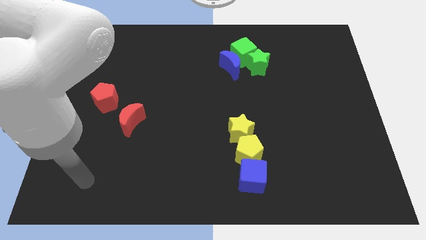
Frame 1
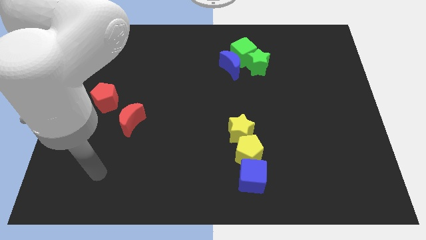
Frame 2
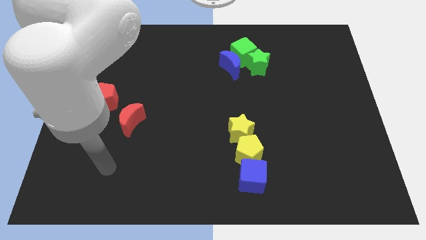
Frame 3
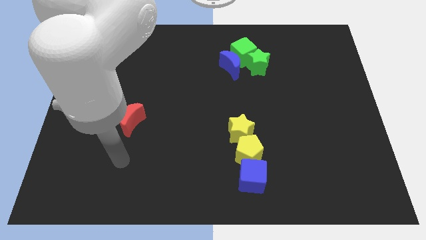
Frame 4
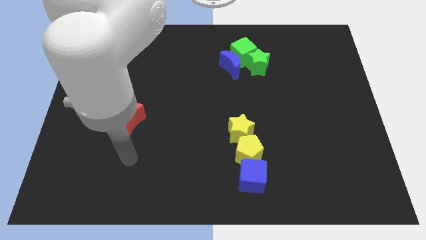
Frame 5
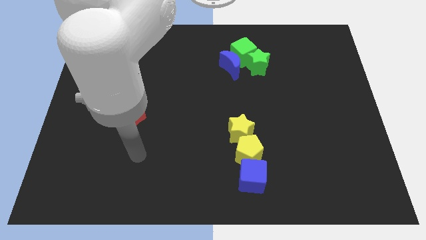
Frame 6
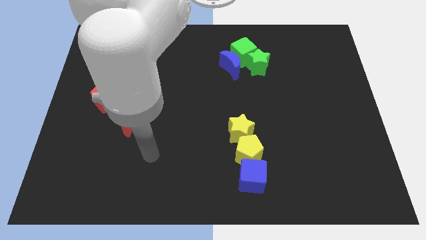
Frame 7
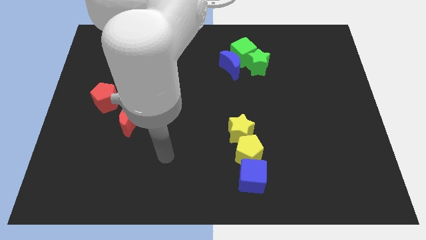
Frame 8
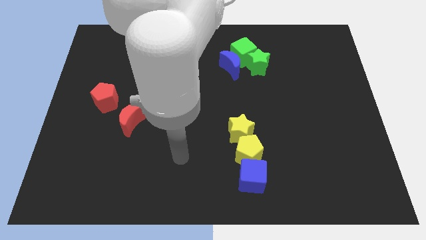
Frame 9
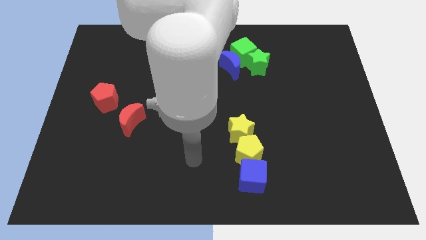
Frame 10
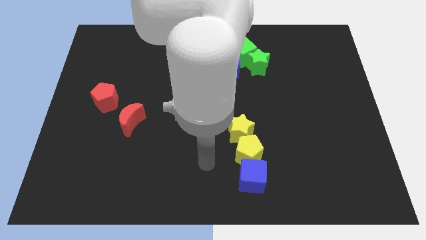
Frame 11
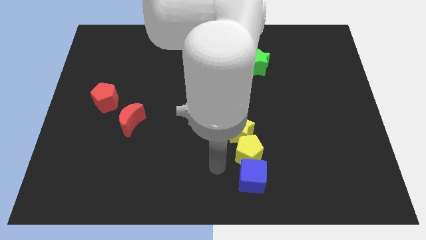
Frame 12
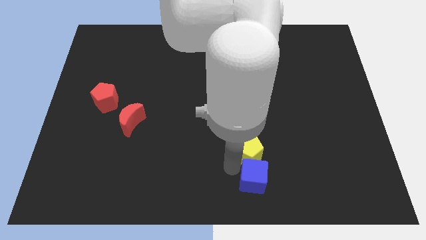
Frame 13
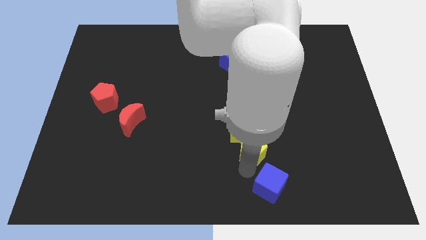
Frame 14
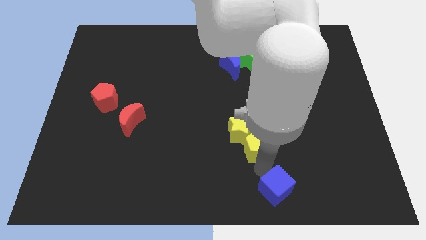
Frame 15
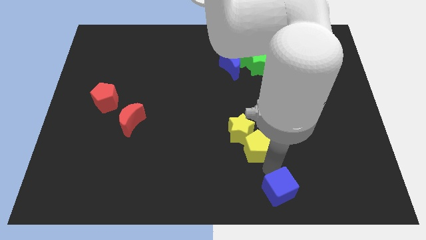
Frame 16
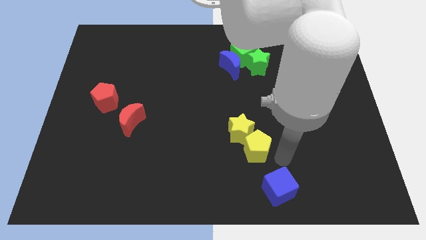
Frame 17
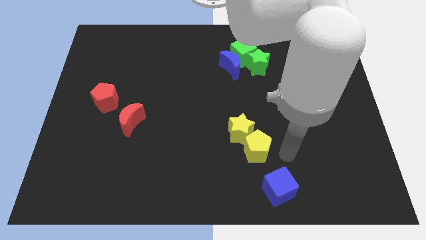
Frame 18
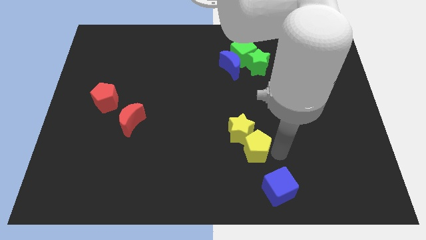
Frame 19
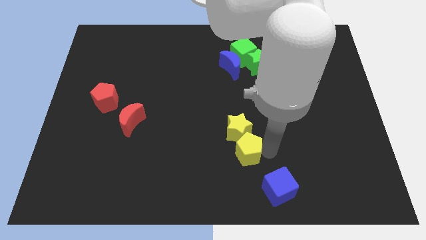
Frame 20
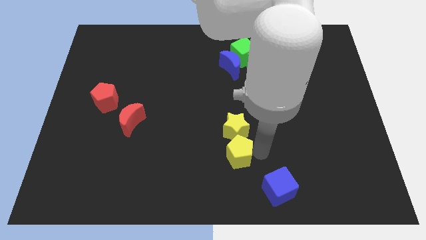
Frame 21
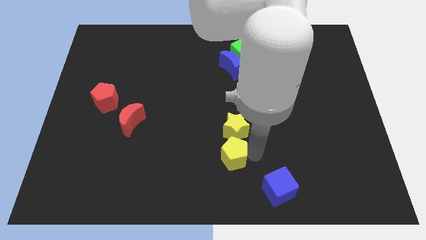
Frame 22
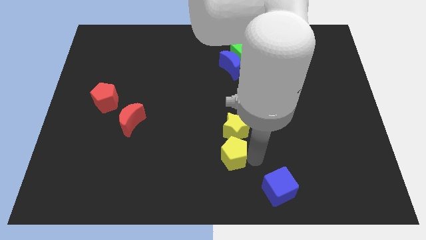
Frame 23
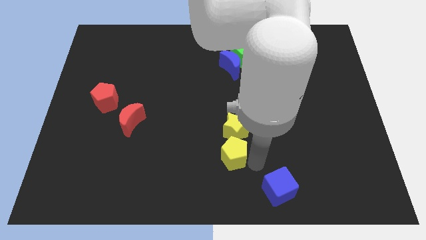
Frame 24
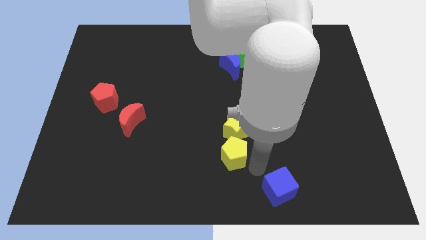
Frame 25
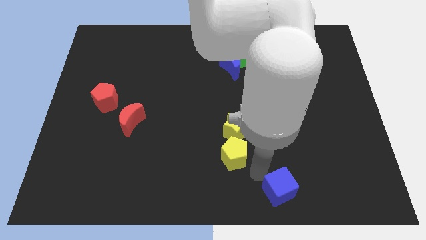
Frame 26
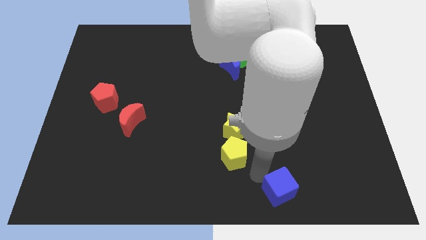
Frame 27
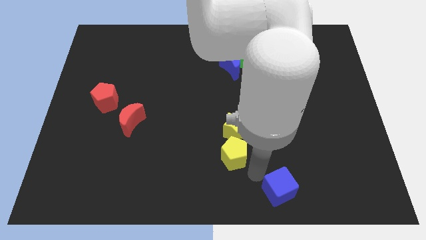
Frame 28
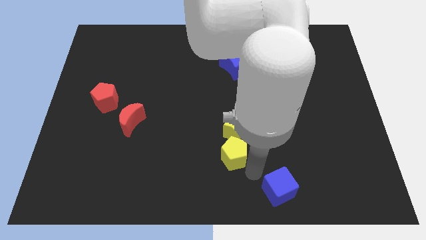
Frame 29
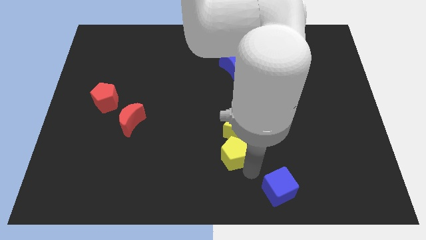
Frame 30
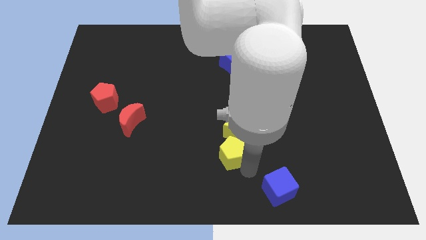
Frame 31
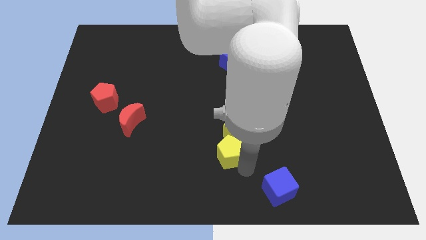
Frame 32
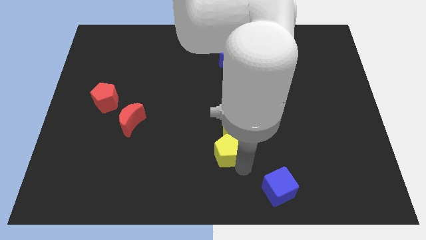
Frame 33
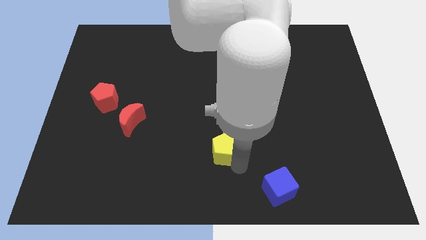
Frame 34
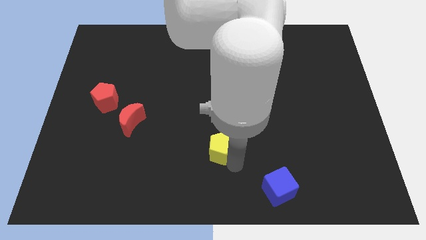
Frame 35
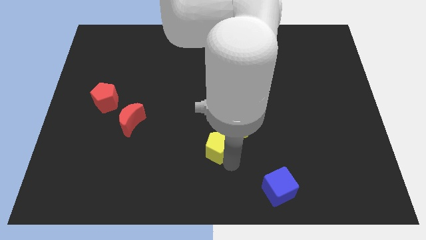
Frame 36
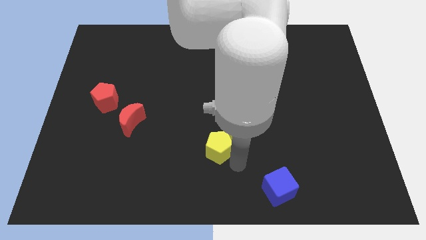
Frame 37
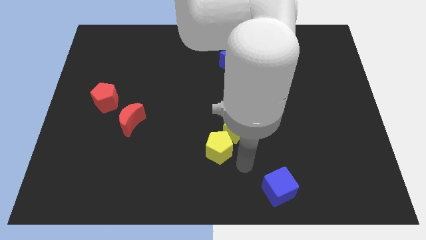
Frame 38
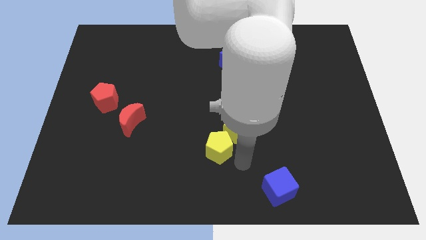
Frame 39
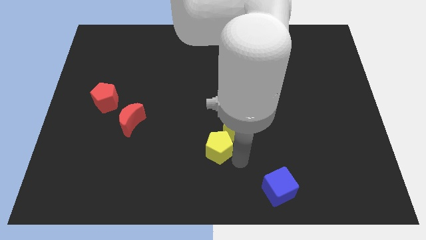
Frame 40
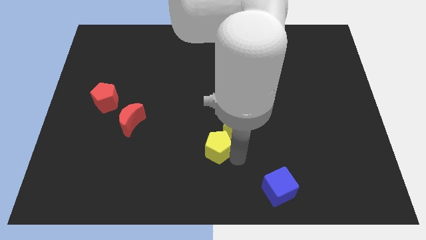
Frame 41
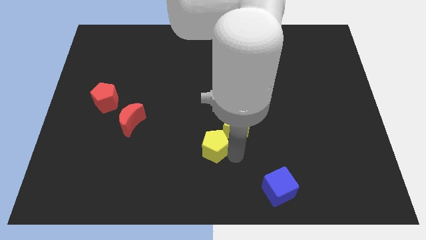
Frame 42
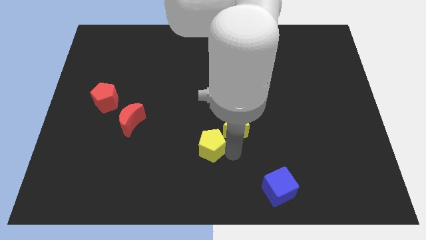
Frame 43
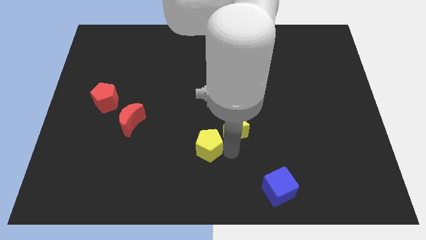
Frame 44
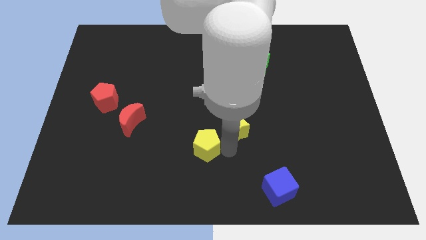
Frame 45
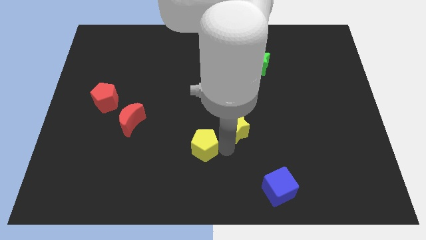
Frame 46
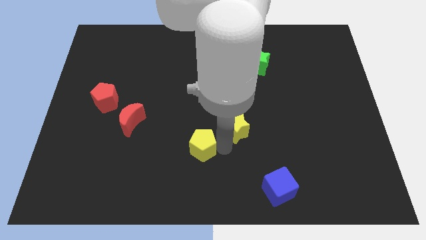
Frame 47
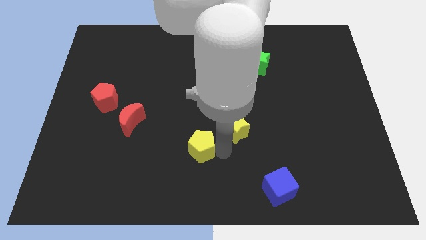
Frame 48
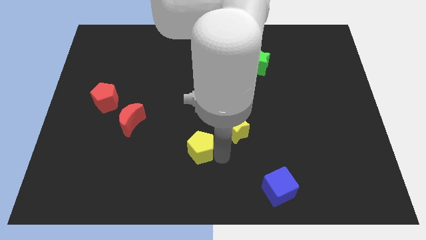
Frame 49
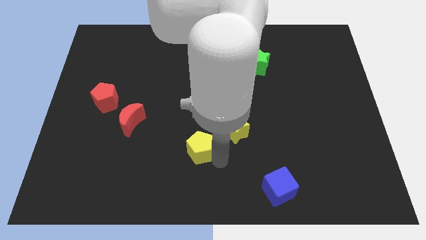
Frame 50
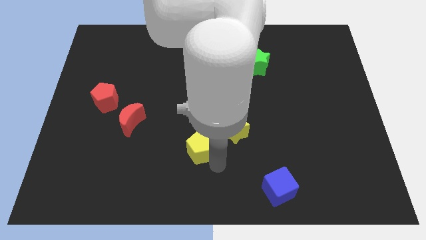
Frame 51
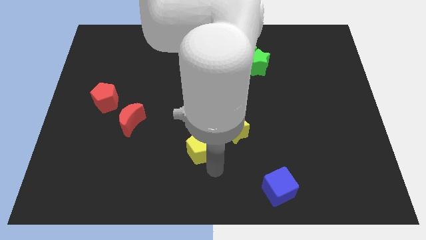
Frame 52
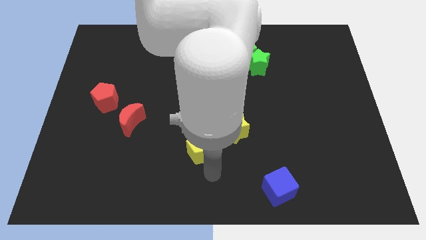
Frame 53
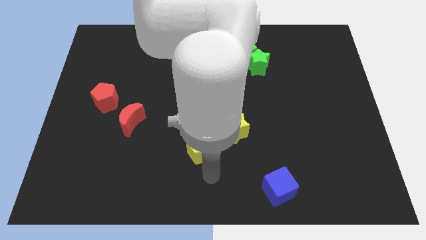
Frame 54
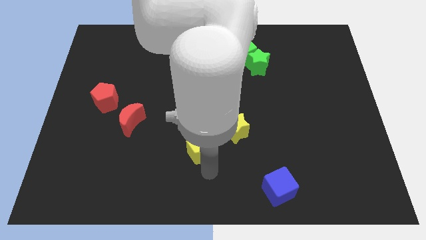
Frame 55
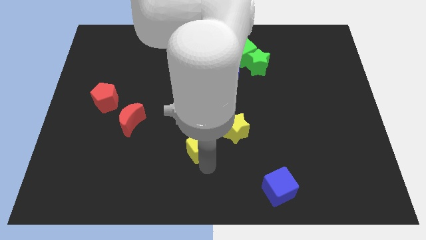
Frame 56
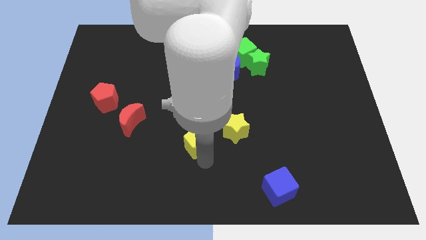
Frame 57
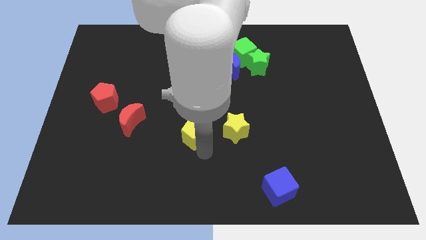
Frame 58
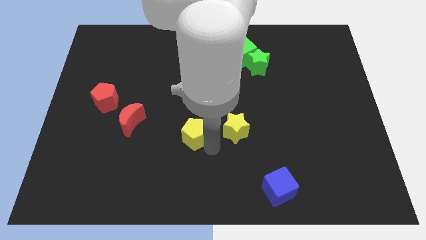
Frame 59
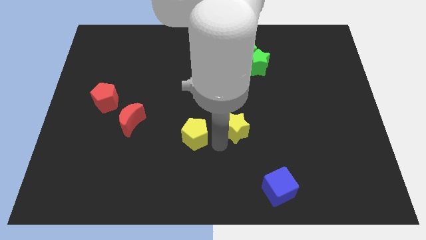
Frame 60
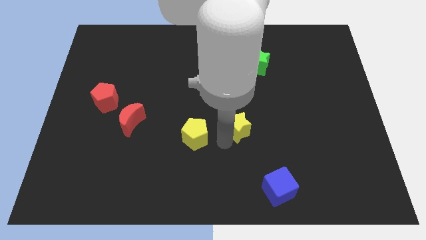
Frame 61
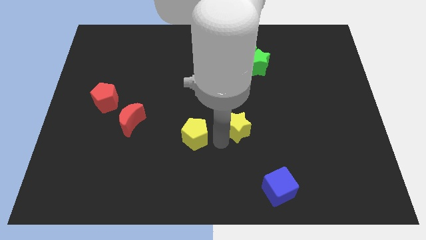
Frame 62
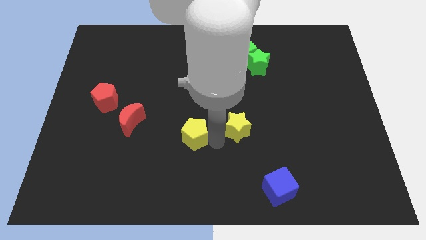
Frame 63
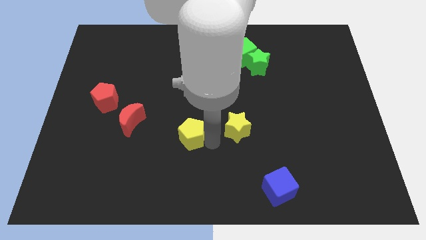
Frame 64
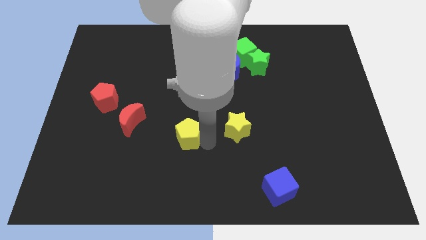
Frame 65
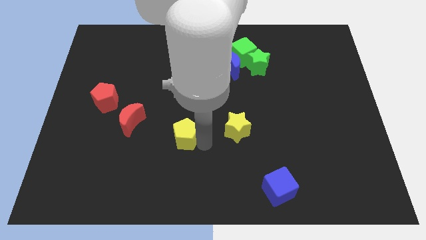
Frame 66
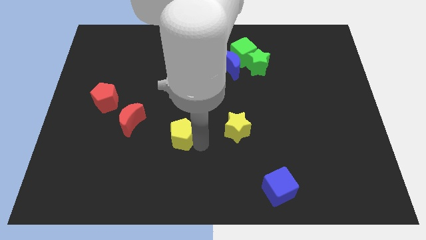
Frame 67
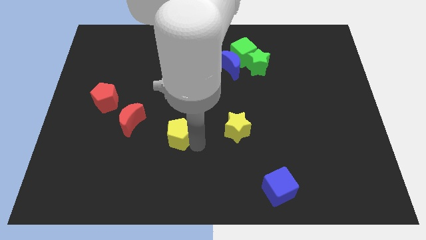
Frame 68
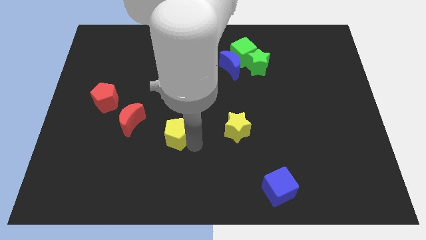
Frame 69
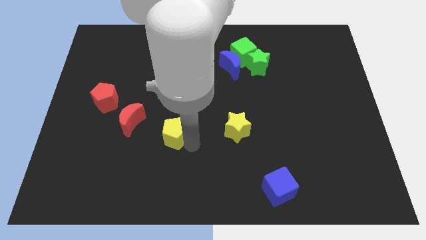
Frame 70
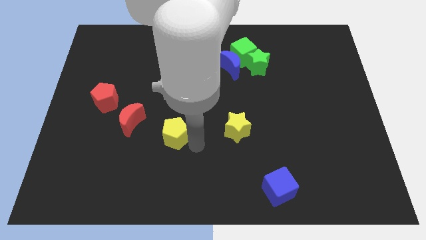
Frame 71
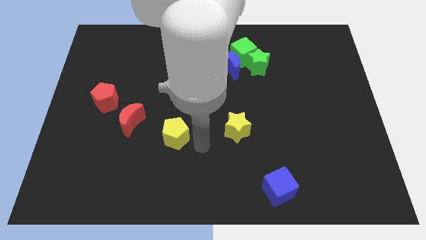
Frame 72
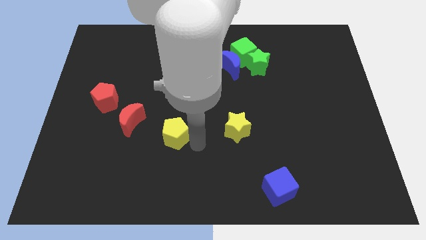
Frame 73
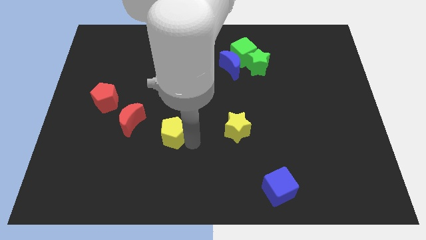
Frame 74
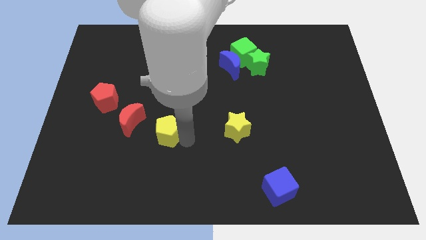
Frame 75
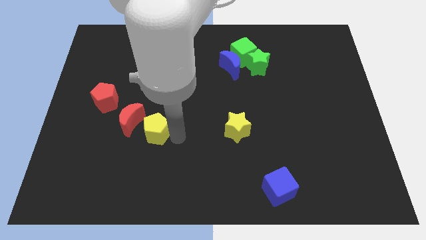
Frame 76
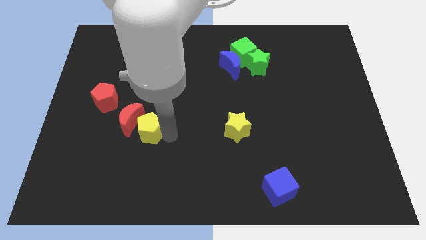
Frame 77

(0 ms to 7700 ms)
push the yellow pentagon close to the red moon
